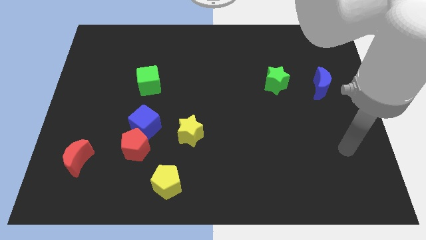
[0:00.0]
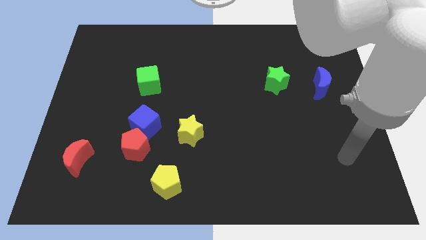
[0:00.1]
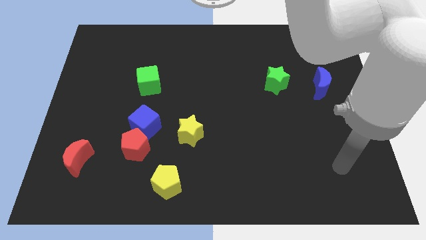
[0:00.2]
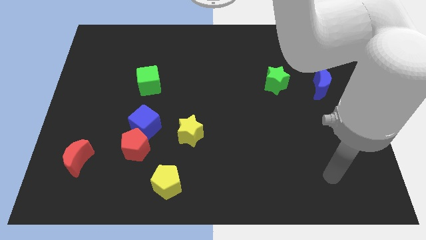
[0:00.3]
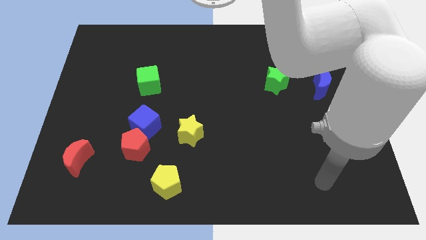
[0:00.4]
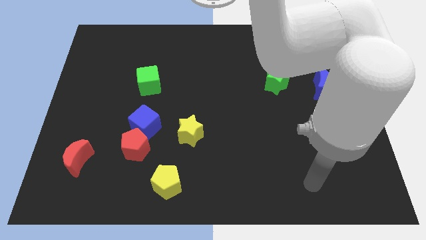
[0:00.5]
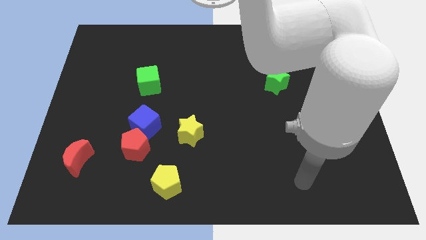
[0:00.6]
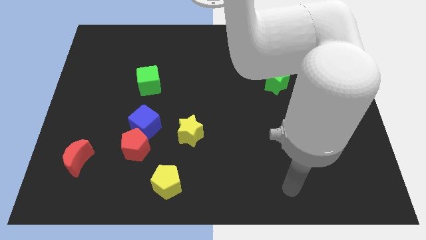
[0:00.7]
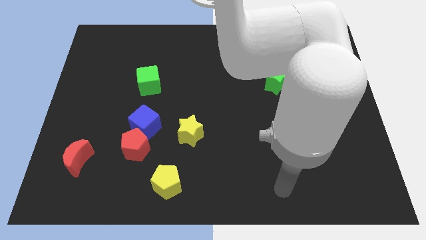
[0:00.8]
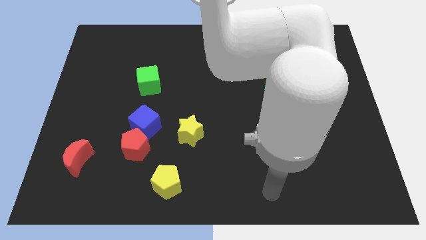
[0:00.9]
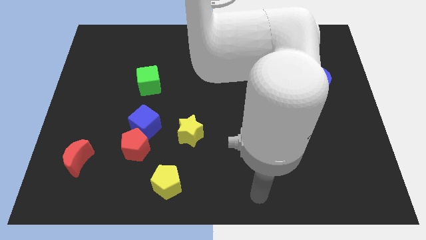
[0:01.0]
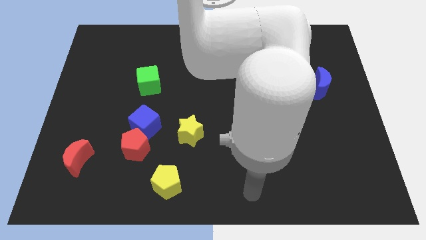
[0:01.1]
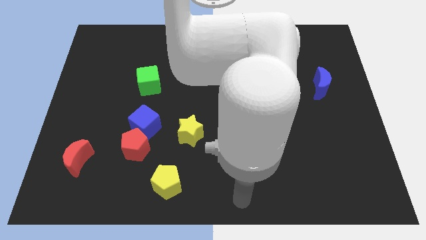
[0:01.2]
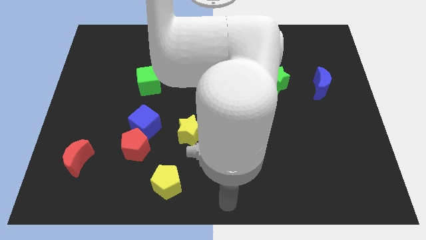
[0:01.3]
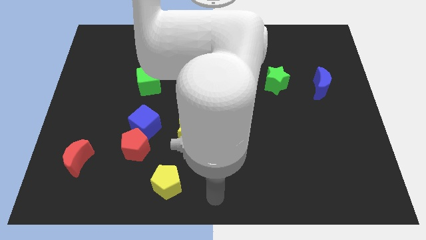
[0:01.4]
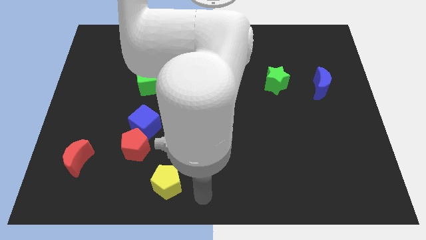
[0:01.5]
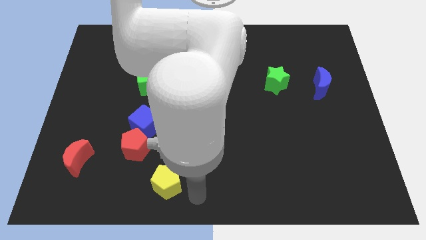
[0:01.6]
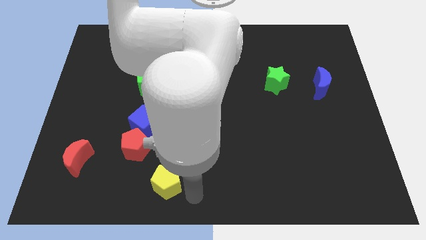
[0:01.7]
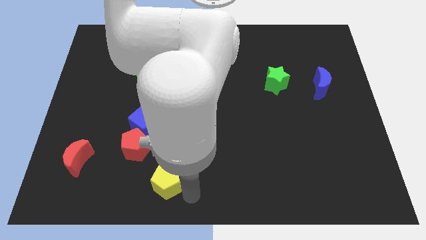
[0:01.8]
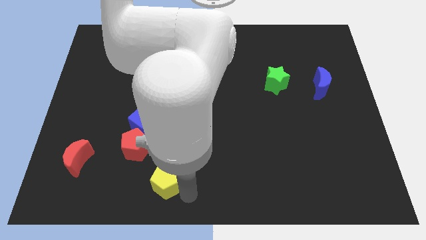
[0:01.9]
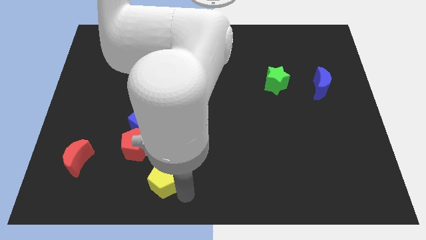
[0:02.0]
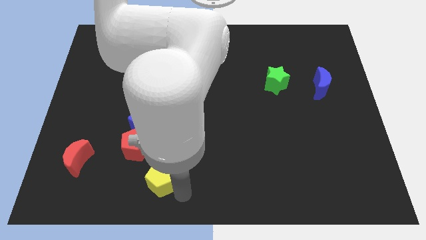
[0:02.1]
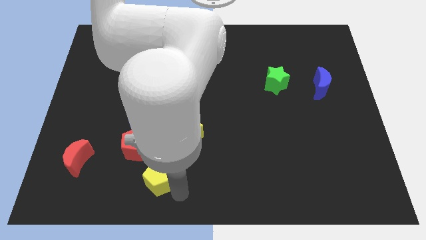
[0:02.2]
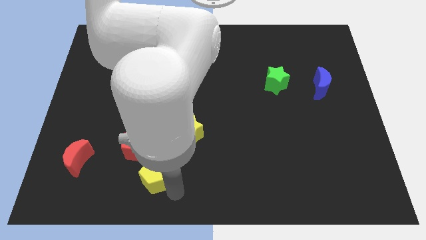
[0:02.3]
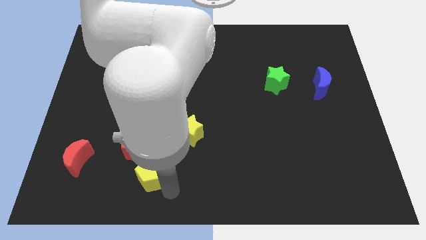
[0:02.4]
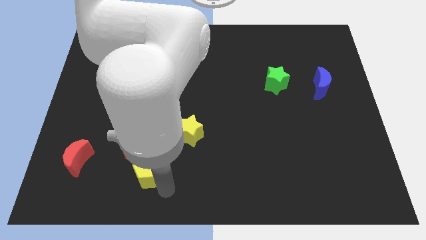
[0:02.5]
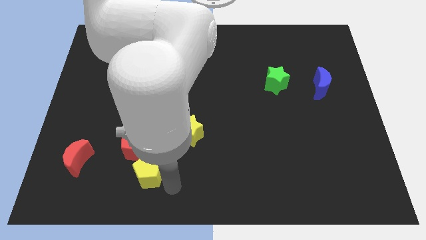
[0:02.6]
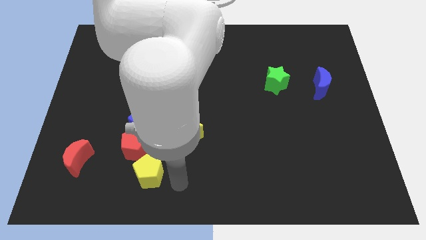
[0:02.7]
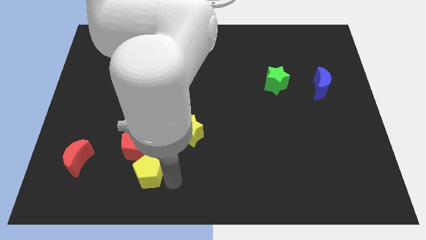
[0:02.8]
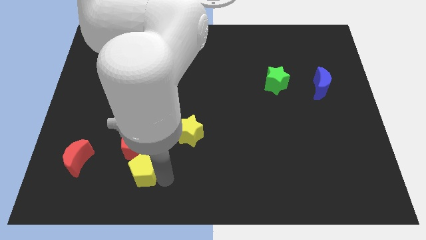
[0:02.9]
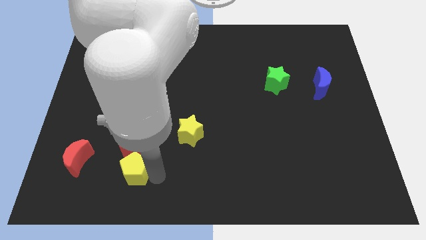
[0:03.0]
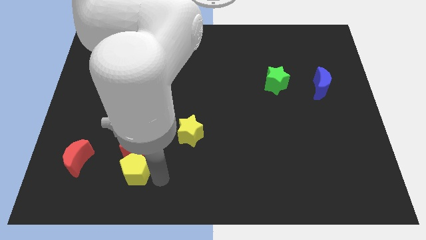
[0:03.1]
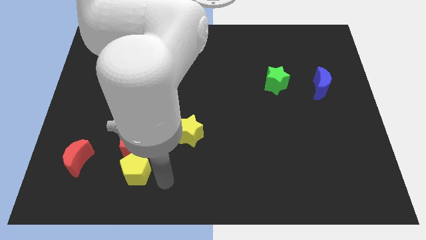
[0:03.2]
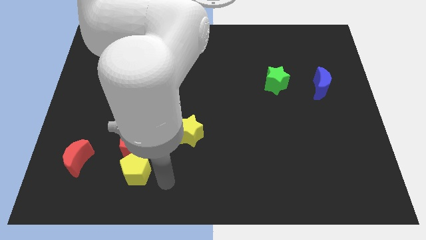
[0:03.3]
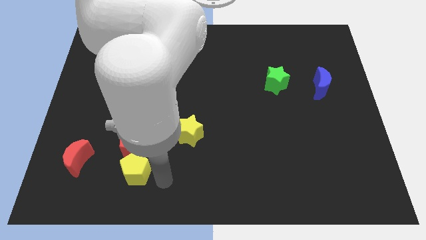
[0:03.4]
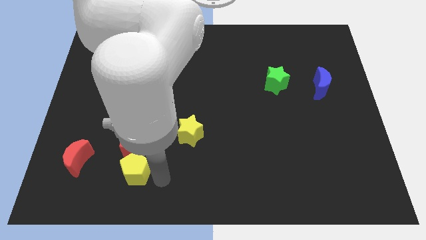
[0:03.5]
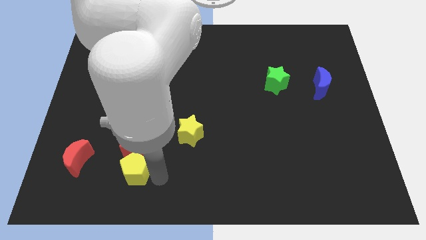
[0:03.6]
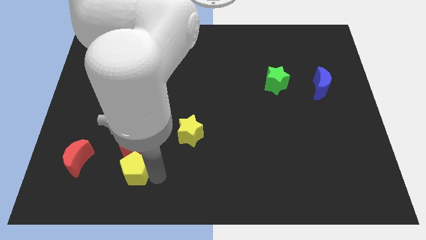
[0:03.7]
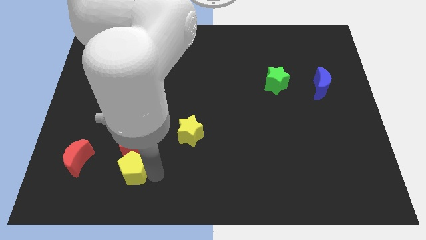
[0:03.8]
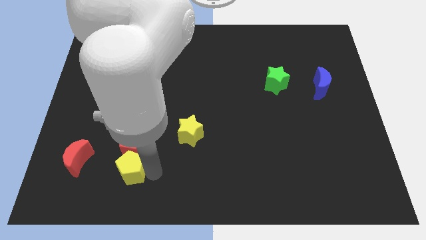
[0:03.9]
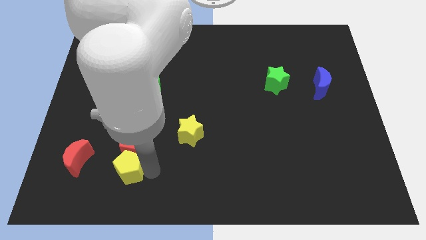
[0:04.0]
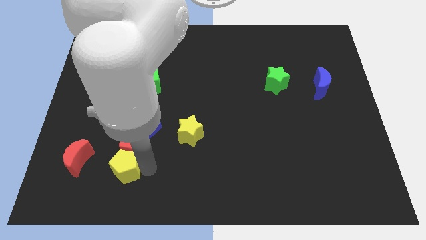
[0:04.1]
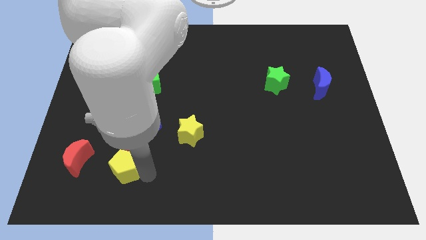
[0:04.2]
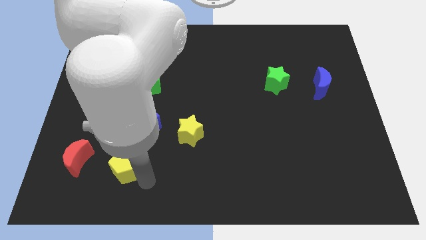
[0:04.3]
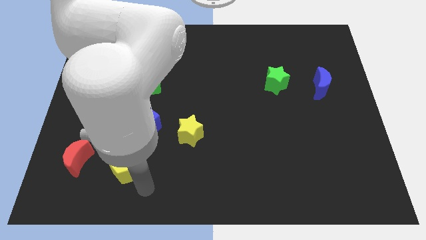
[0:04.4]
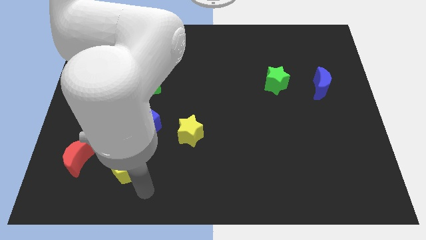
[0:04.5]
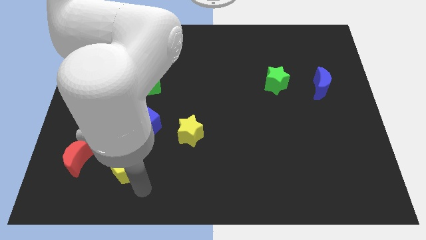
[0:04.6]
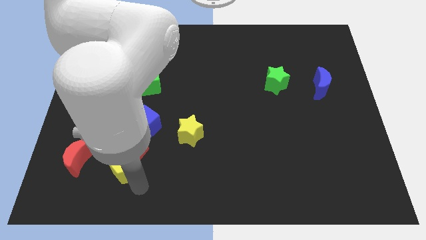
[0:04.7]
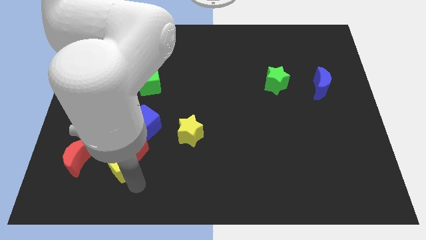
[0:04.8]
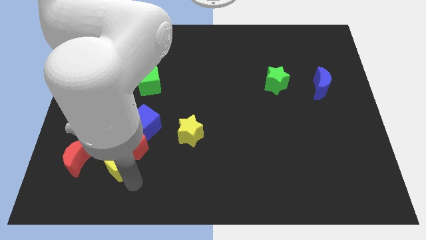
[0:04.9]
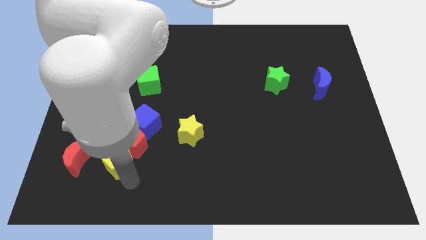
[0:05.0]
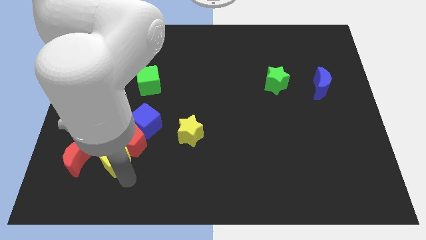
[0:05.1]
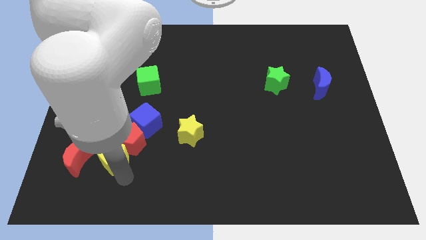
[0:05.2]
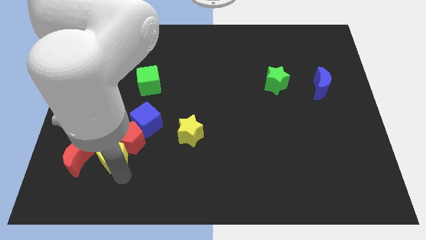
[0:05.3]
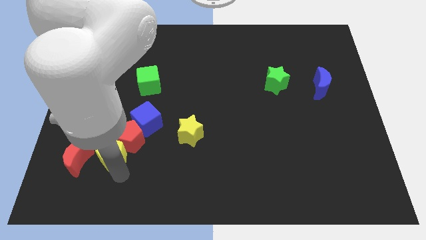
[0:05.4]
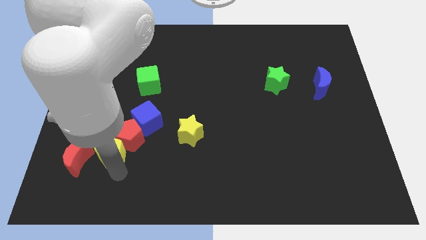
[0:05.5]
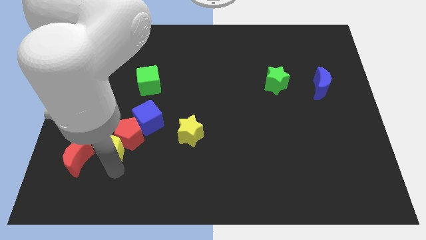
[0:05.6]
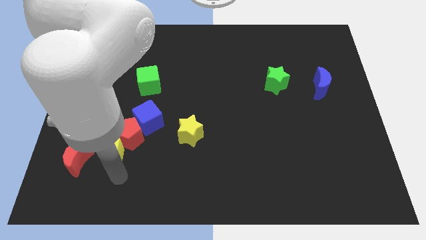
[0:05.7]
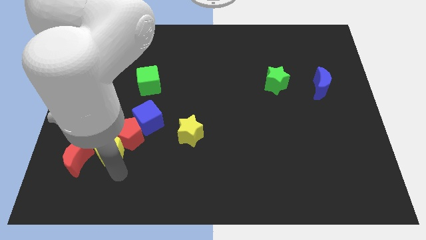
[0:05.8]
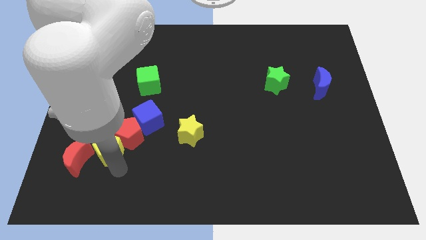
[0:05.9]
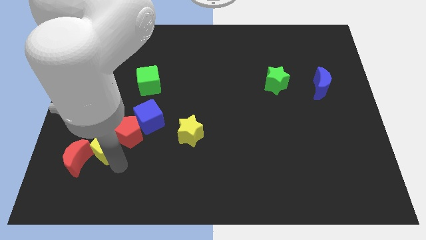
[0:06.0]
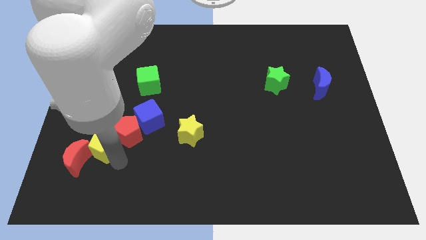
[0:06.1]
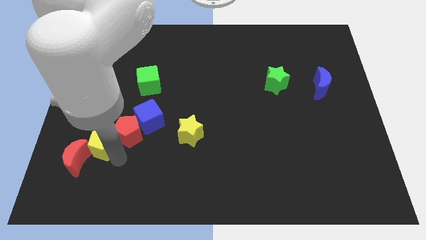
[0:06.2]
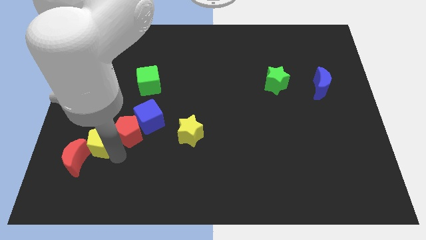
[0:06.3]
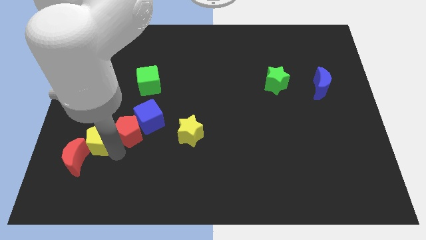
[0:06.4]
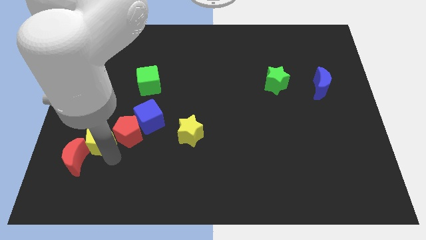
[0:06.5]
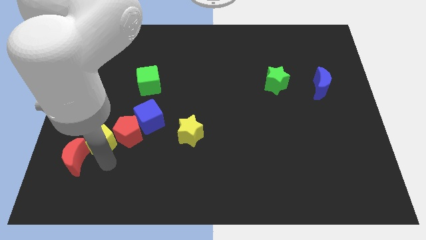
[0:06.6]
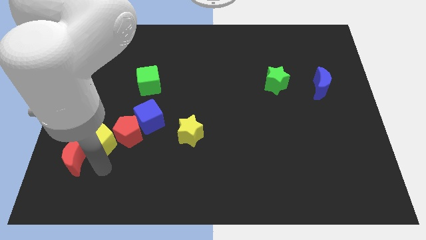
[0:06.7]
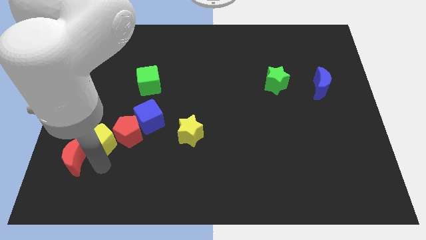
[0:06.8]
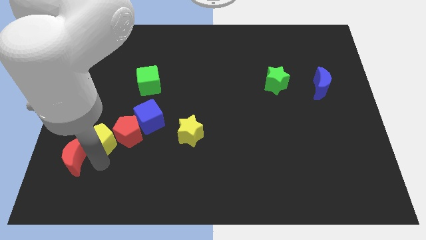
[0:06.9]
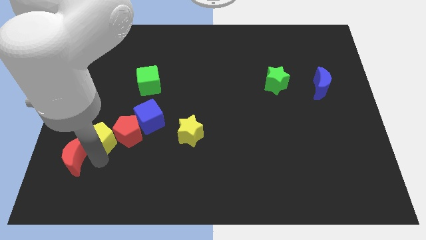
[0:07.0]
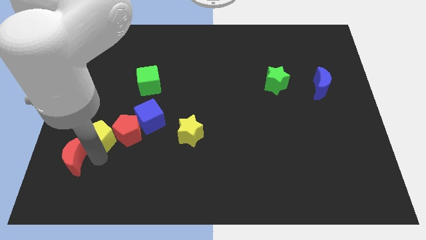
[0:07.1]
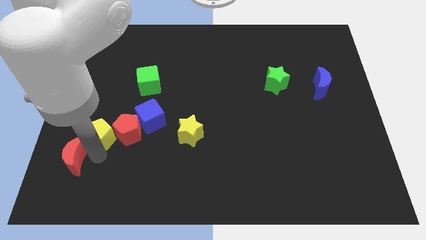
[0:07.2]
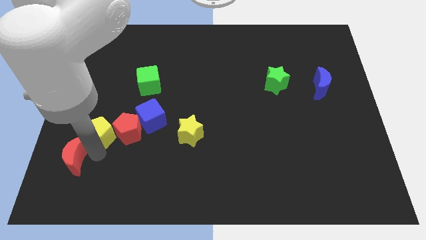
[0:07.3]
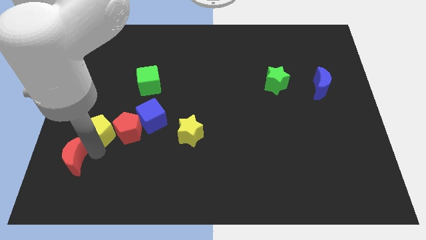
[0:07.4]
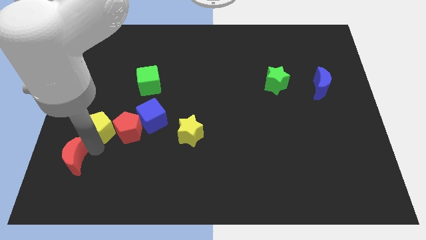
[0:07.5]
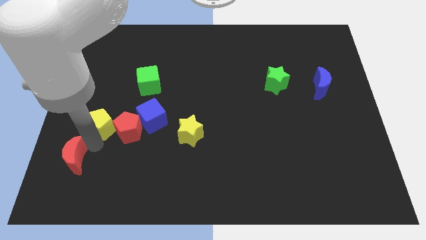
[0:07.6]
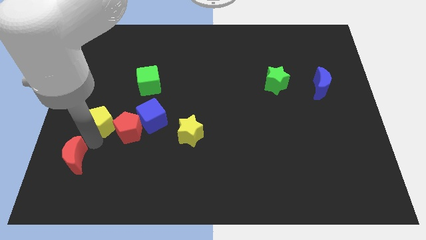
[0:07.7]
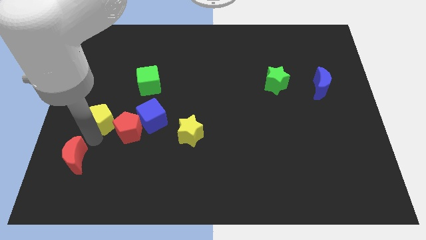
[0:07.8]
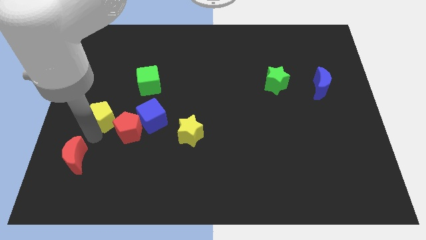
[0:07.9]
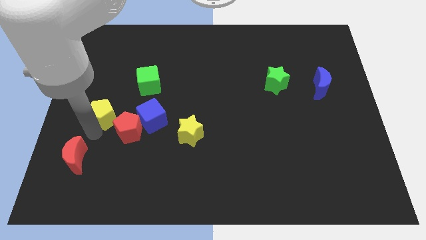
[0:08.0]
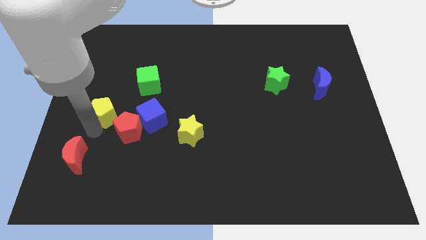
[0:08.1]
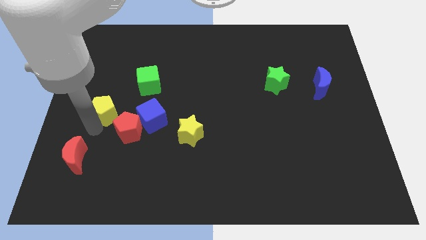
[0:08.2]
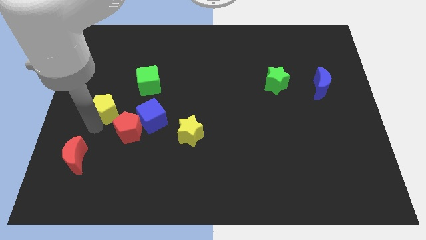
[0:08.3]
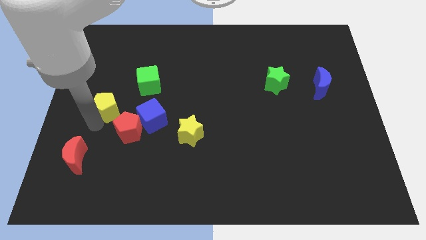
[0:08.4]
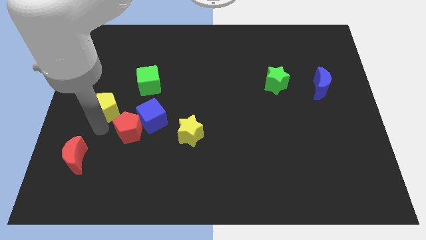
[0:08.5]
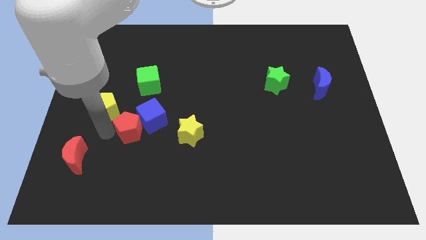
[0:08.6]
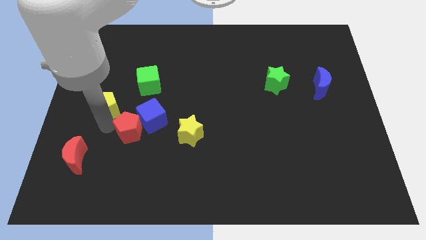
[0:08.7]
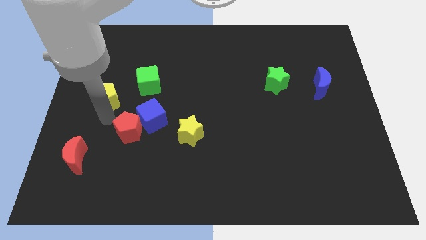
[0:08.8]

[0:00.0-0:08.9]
put the yellow pentagon just left of the green cube
